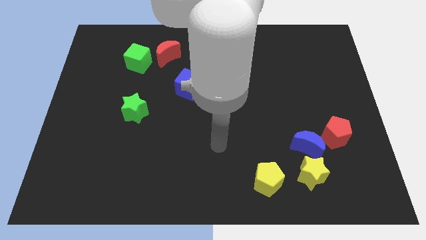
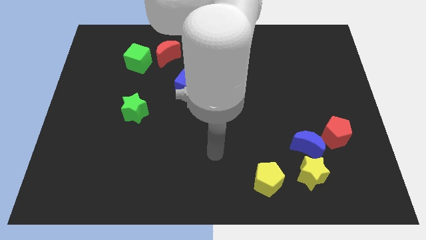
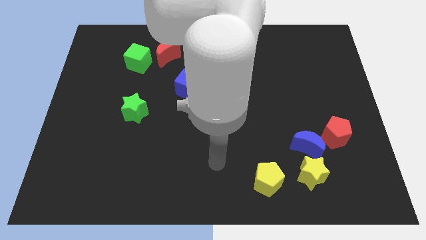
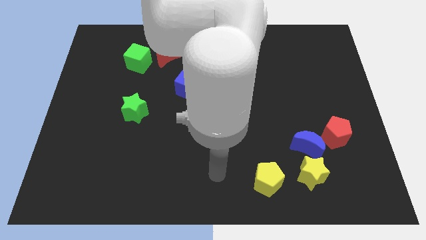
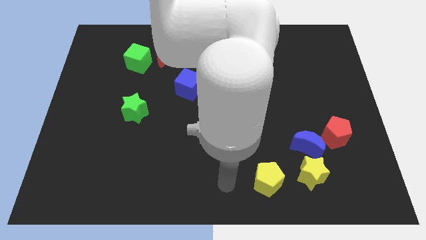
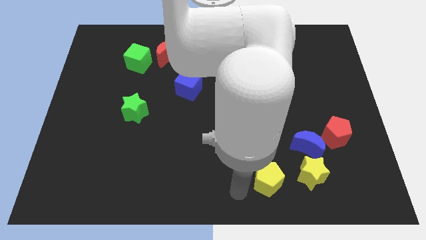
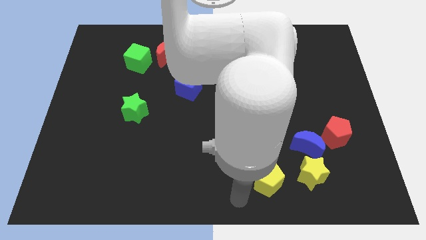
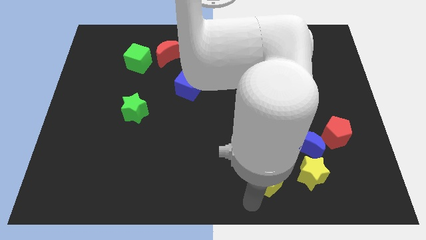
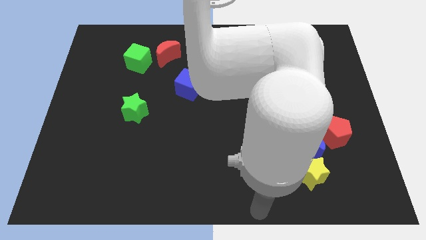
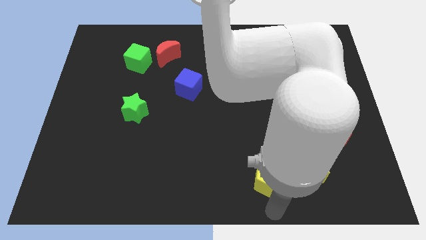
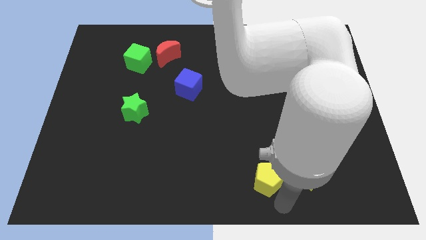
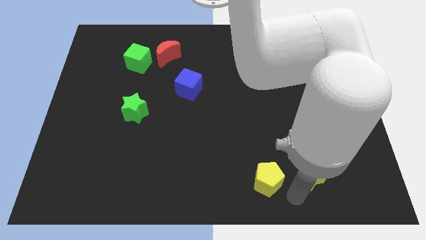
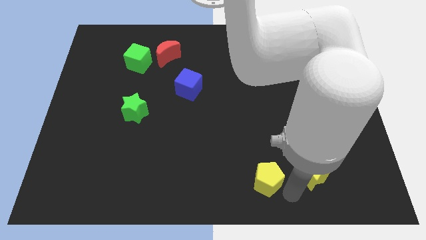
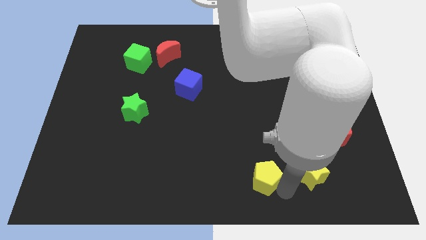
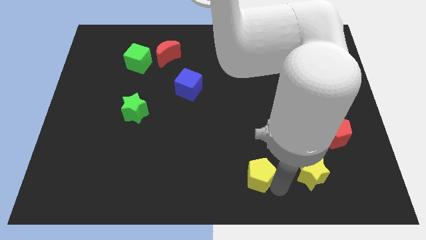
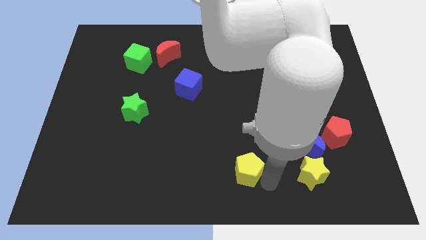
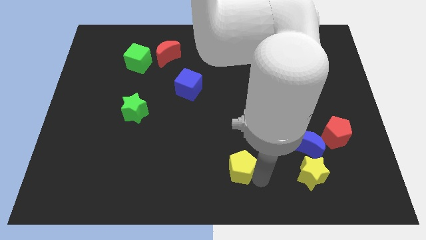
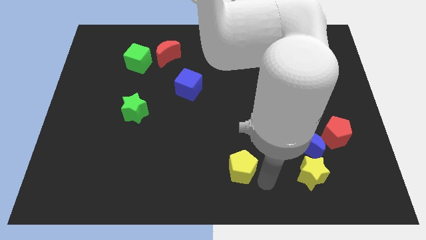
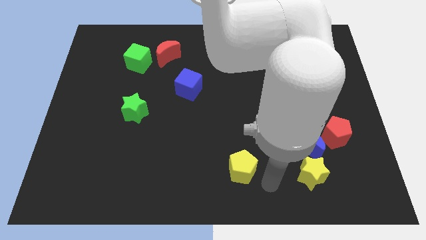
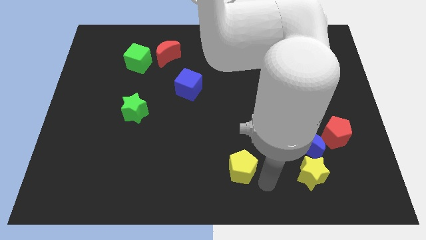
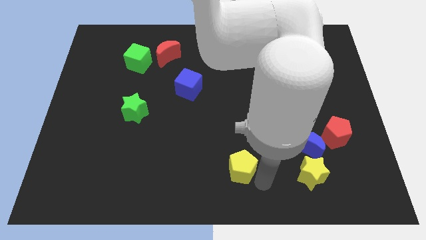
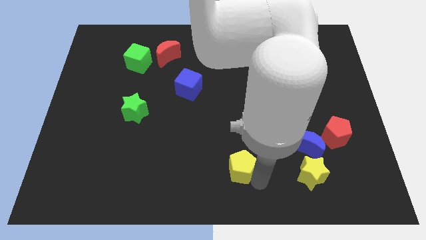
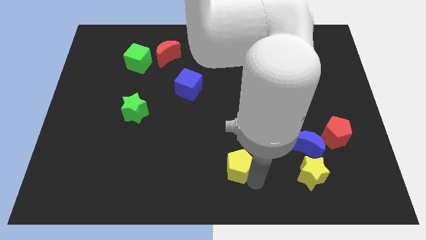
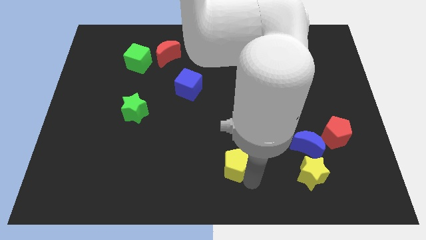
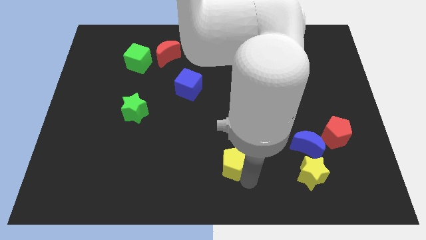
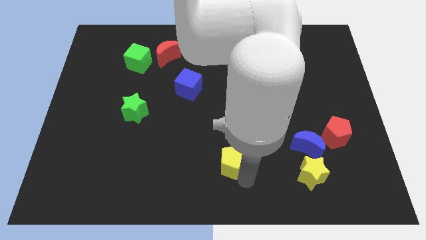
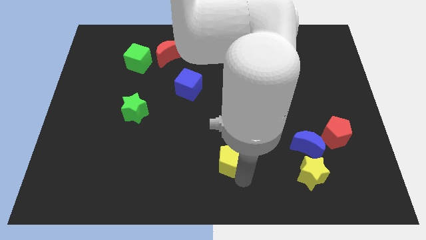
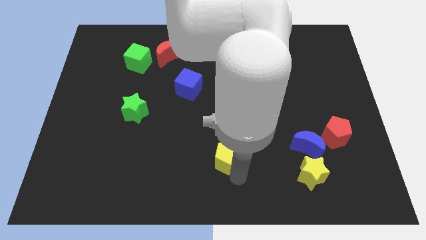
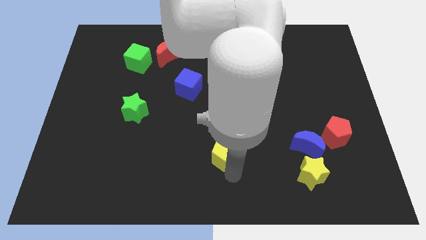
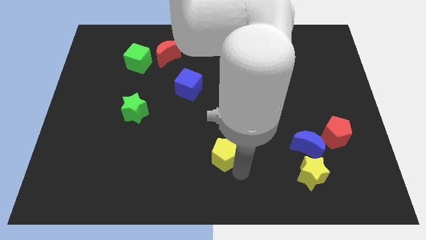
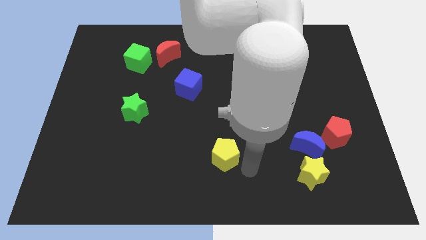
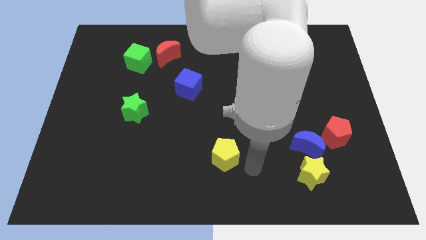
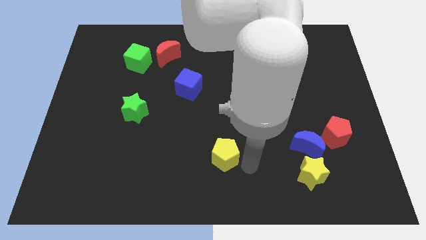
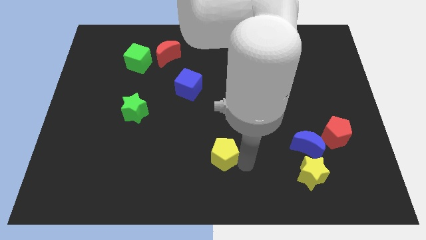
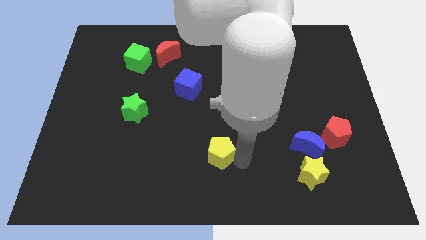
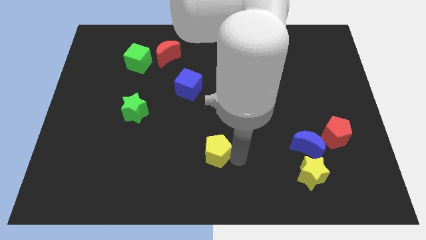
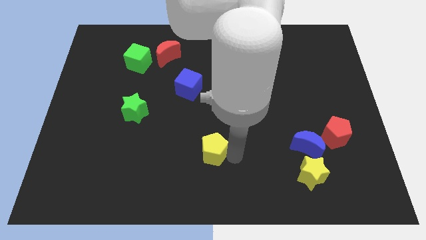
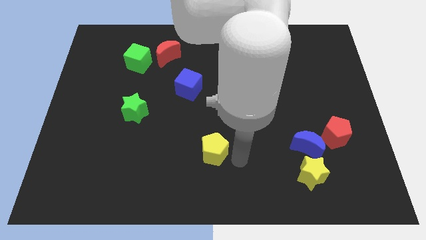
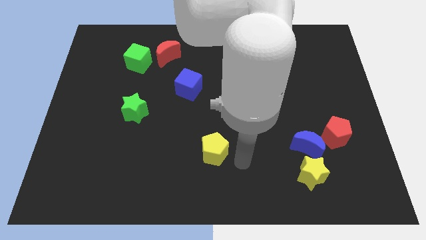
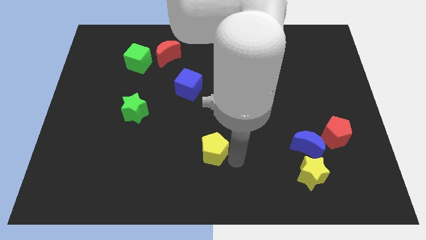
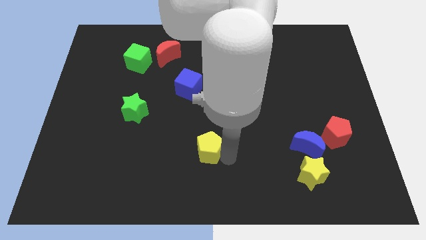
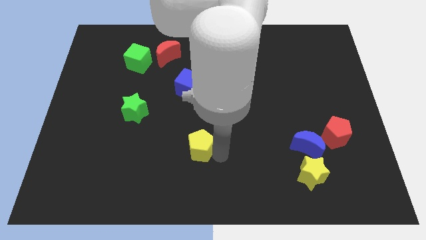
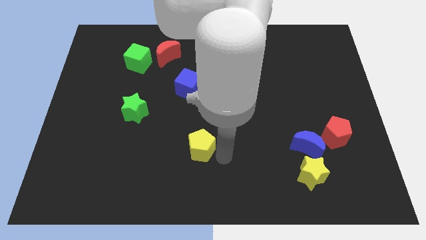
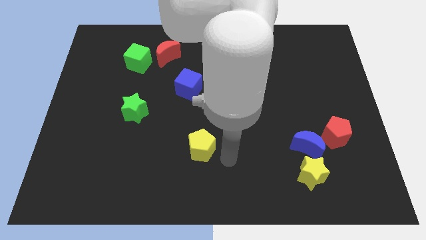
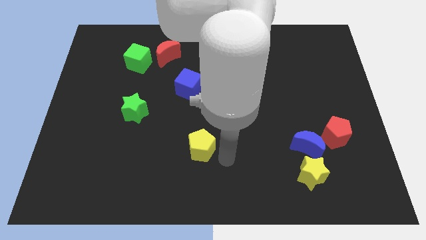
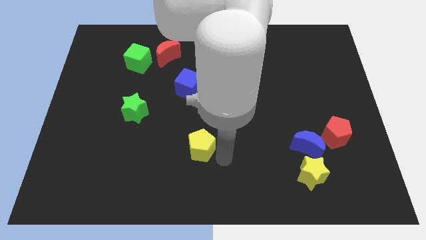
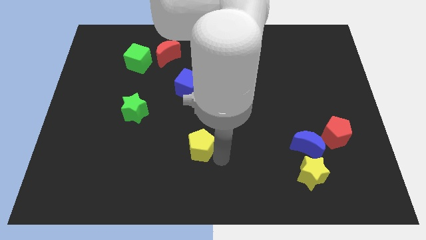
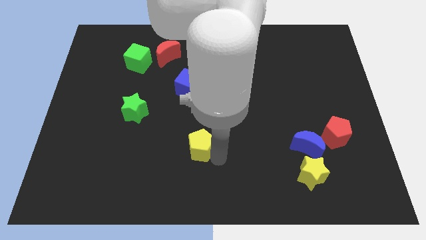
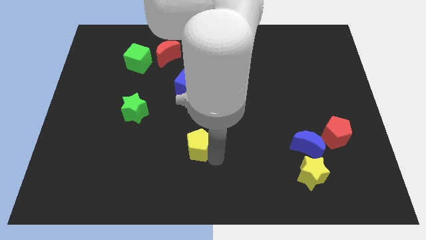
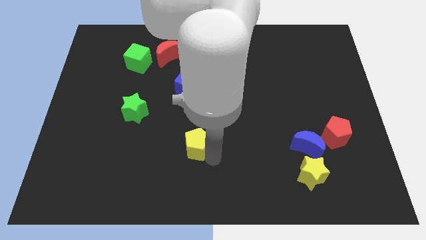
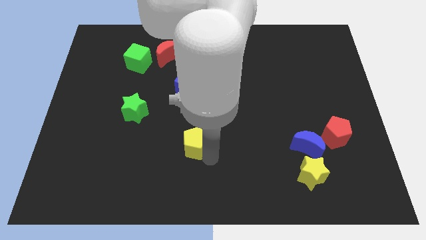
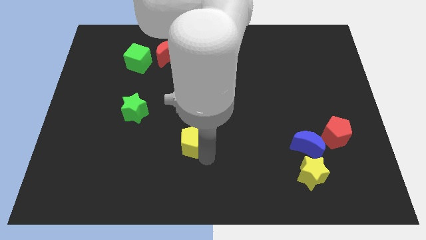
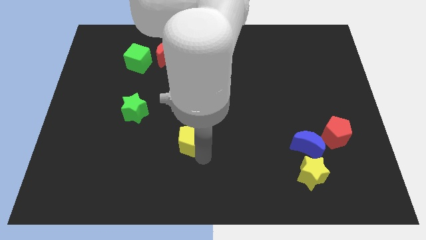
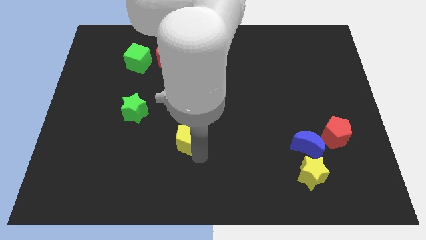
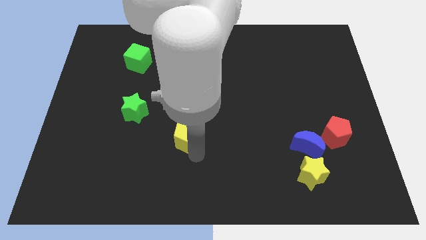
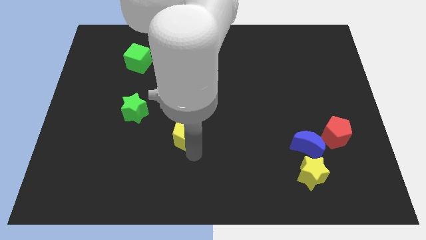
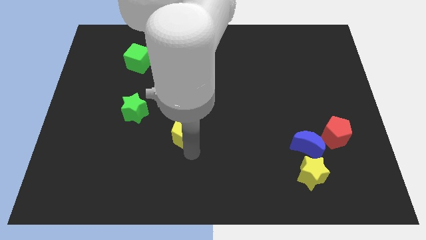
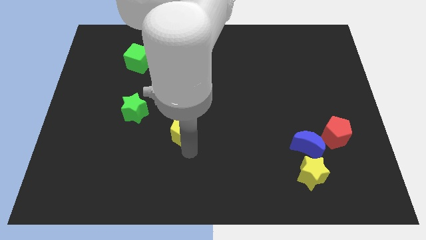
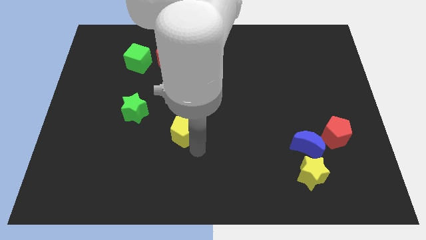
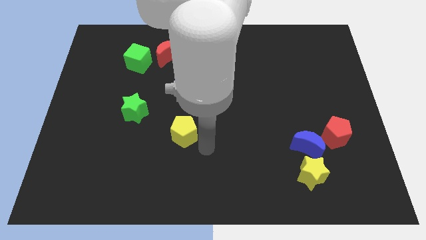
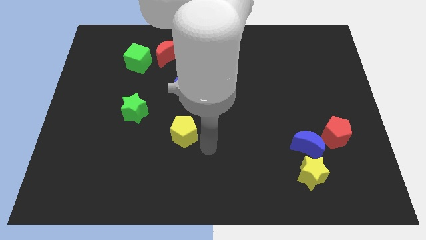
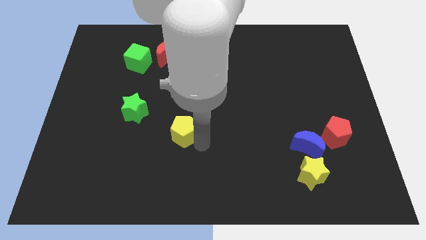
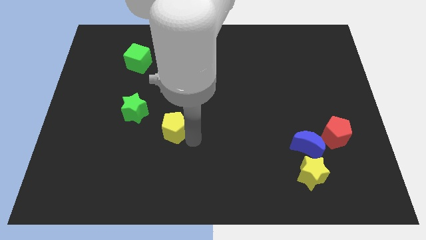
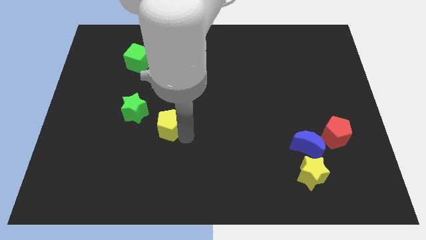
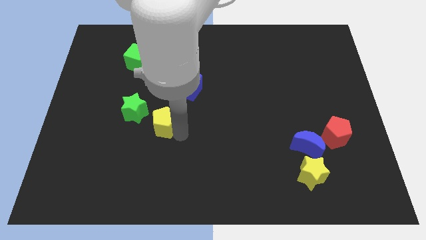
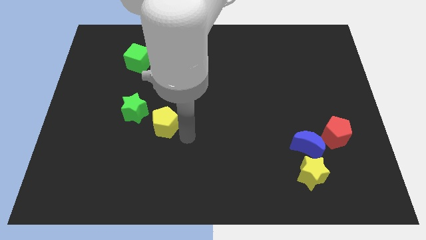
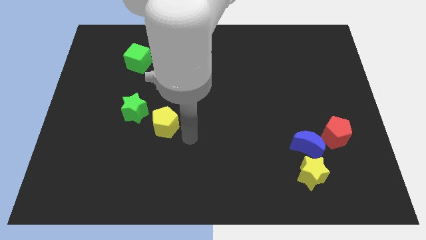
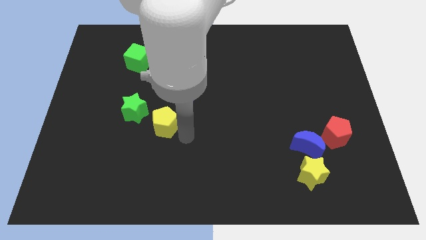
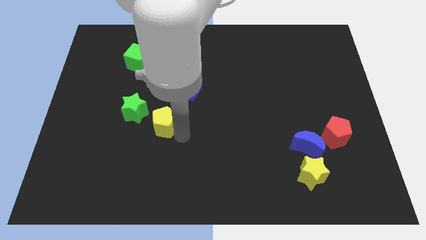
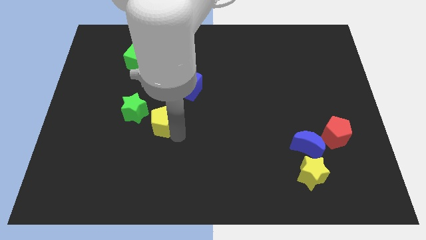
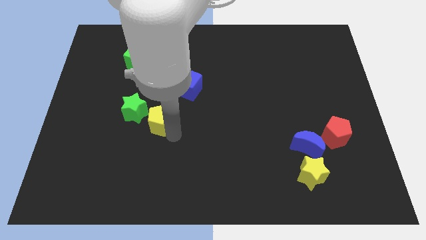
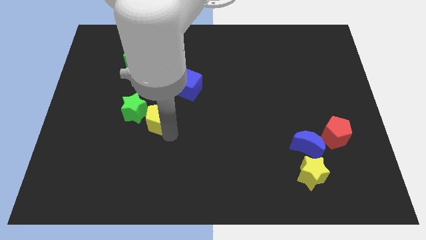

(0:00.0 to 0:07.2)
put the yellow pentagon close to the green star
